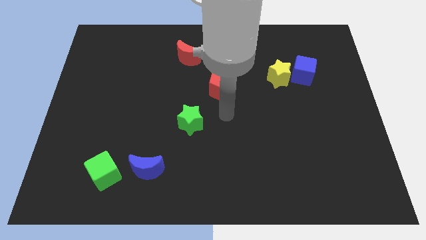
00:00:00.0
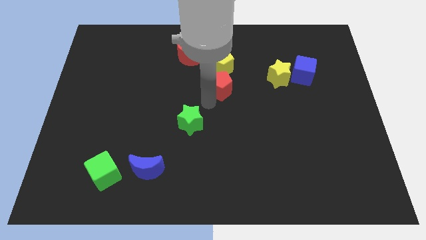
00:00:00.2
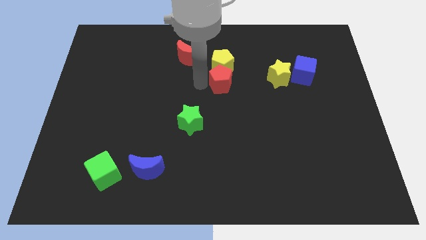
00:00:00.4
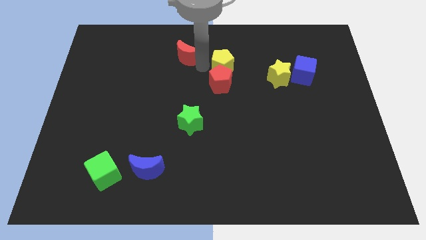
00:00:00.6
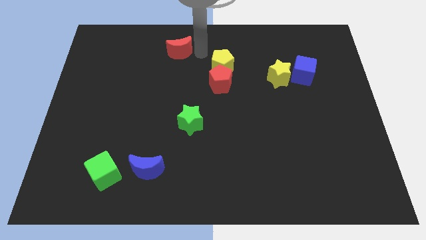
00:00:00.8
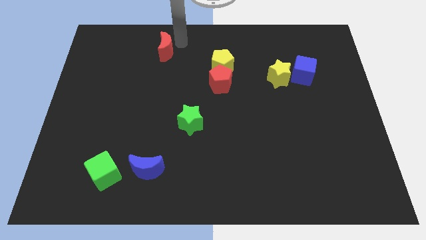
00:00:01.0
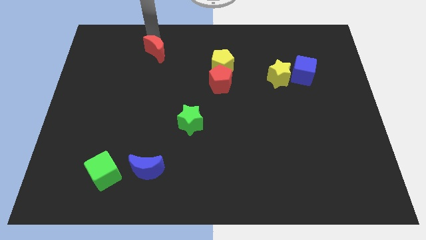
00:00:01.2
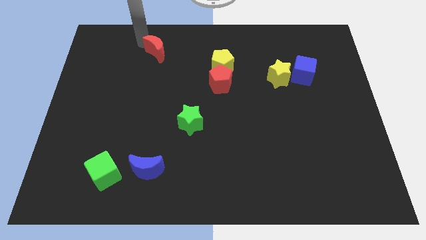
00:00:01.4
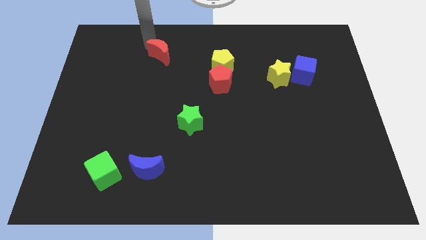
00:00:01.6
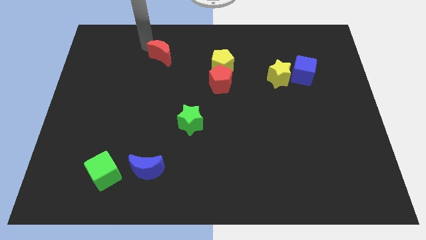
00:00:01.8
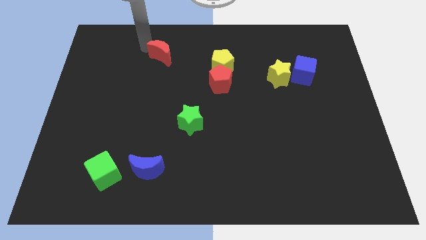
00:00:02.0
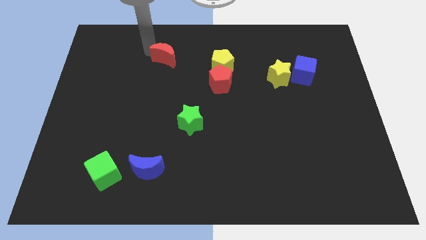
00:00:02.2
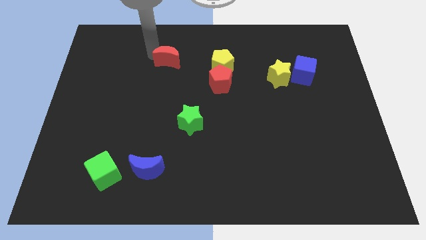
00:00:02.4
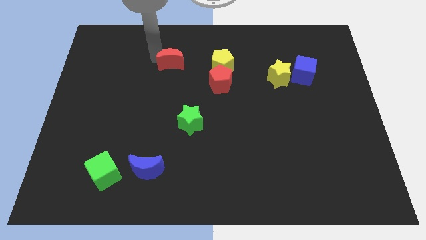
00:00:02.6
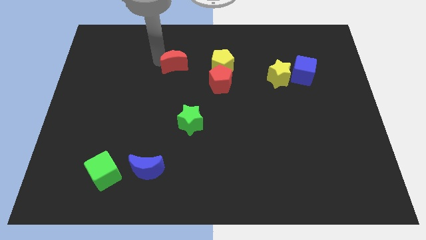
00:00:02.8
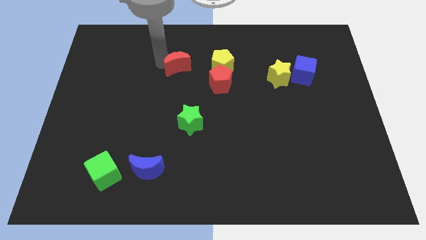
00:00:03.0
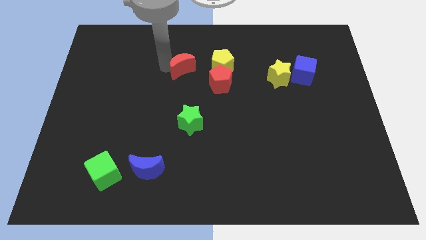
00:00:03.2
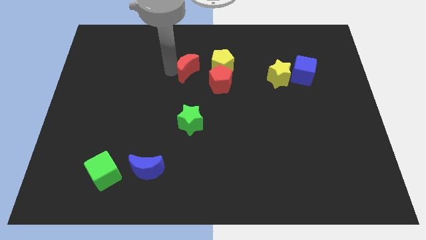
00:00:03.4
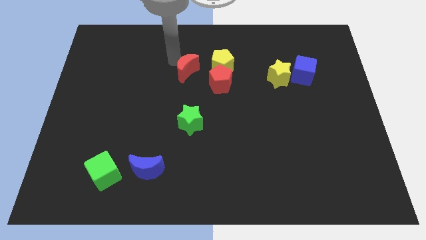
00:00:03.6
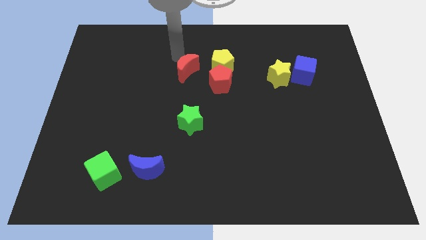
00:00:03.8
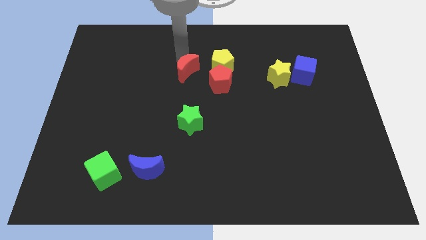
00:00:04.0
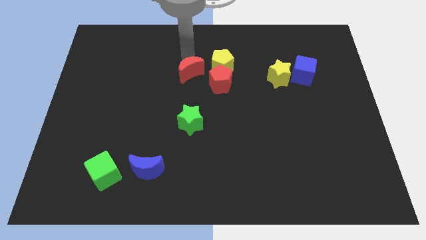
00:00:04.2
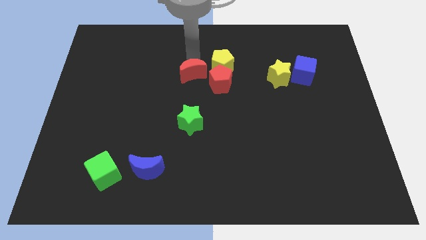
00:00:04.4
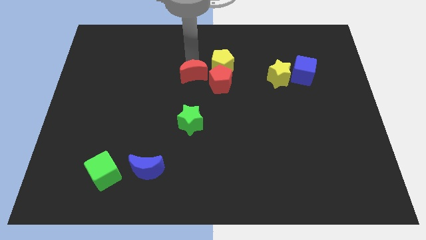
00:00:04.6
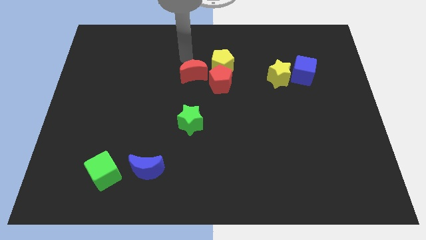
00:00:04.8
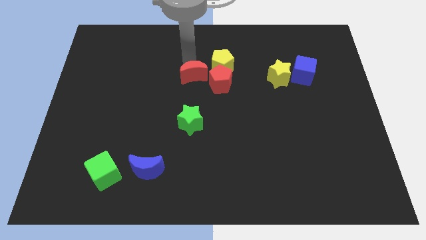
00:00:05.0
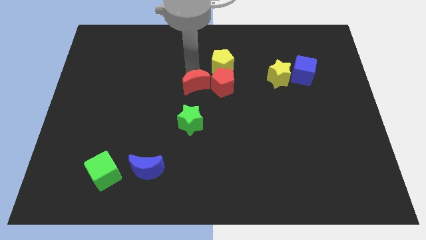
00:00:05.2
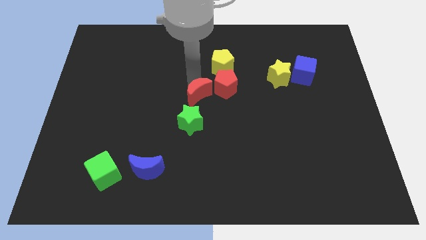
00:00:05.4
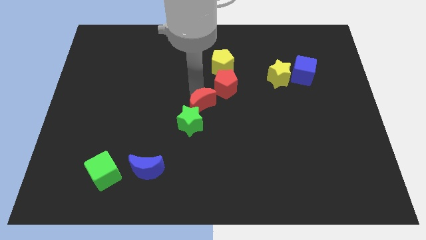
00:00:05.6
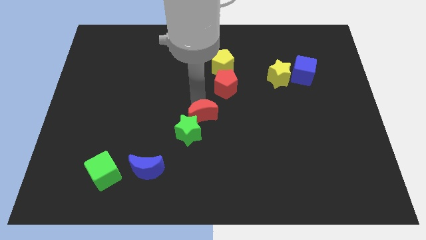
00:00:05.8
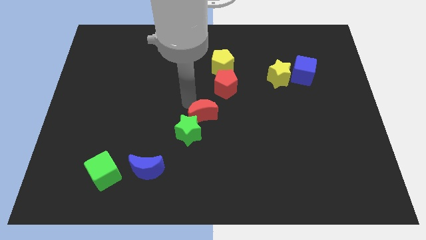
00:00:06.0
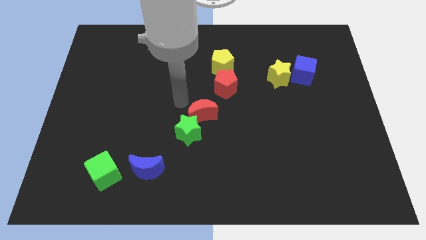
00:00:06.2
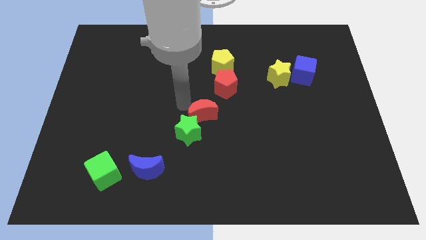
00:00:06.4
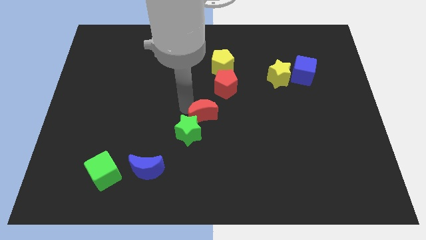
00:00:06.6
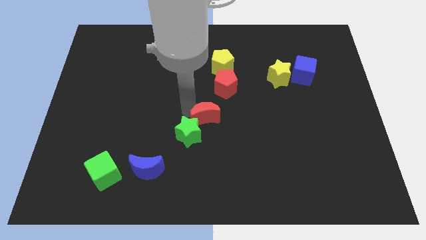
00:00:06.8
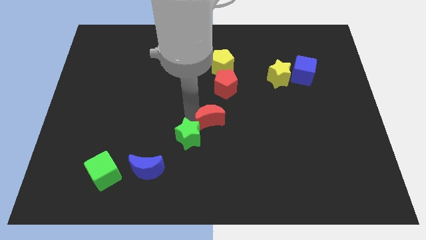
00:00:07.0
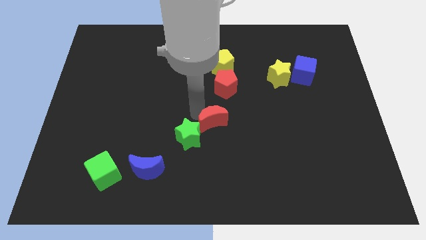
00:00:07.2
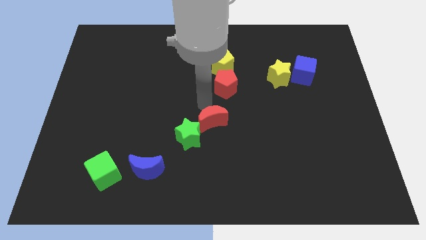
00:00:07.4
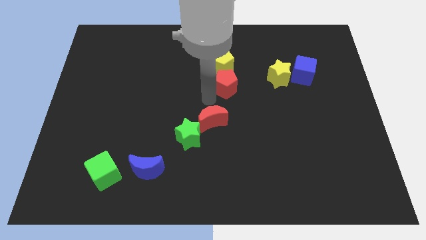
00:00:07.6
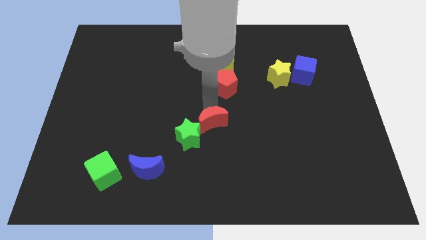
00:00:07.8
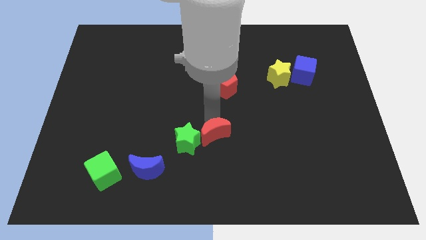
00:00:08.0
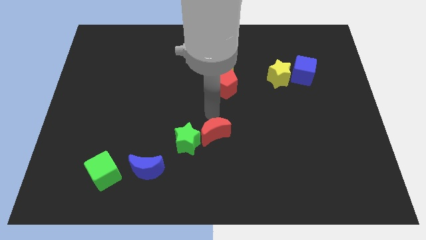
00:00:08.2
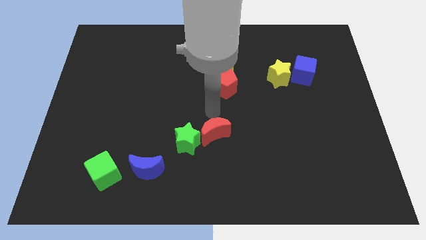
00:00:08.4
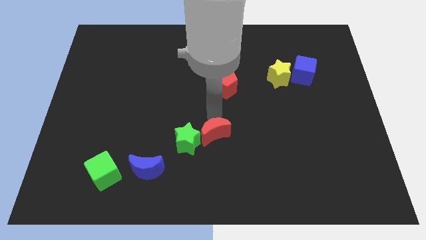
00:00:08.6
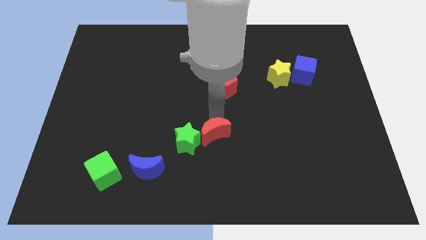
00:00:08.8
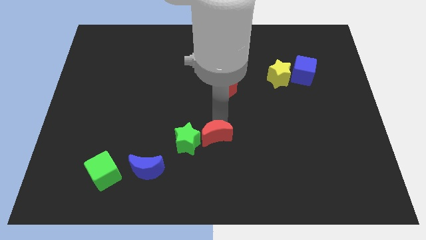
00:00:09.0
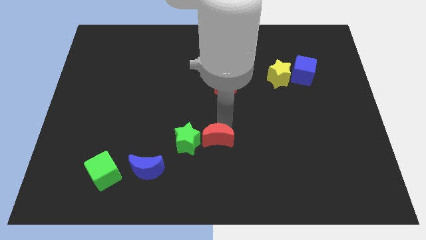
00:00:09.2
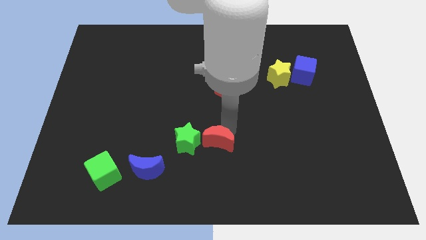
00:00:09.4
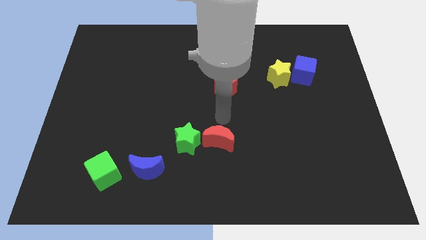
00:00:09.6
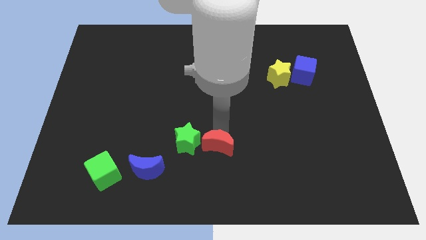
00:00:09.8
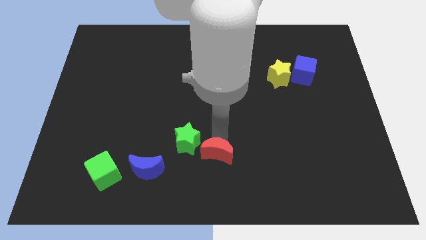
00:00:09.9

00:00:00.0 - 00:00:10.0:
push the red moon to the bottom

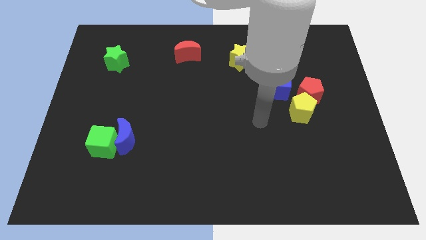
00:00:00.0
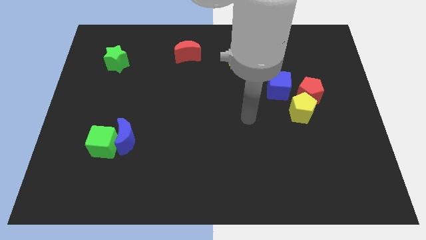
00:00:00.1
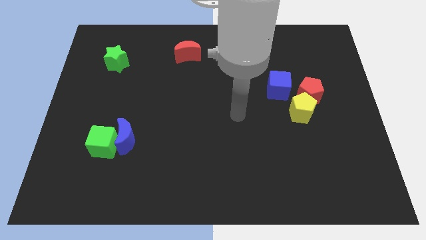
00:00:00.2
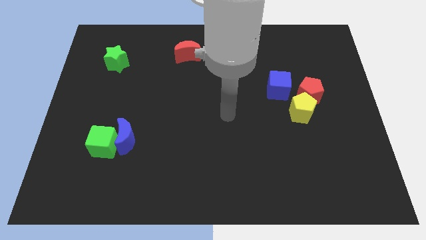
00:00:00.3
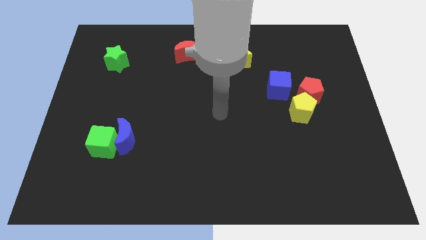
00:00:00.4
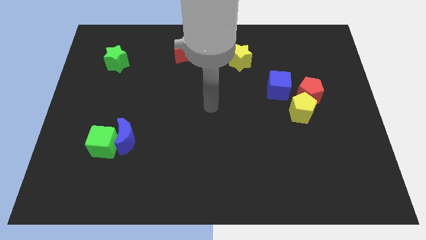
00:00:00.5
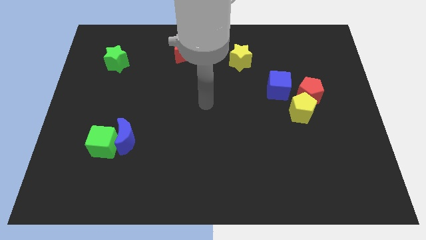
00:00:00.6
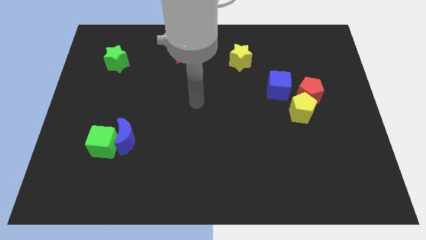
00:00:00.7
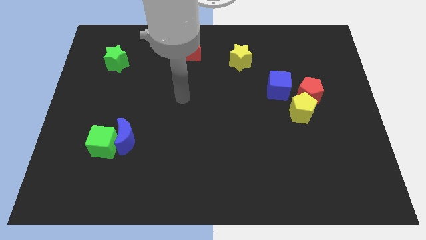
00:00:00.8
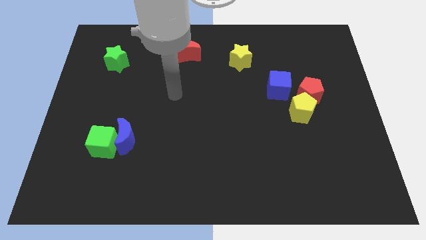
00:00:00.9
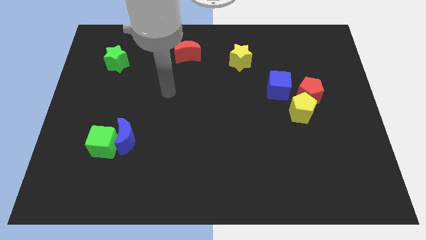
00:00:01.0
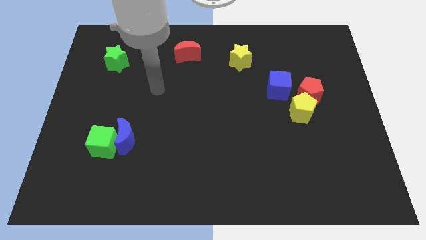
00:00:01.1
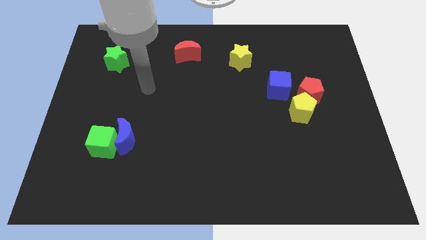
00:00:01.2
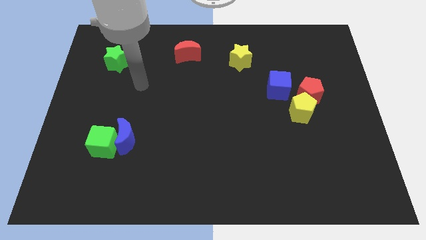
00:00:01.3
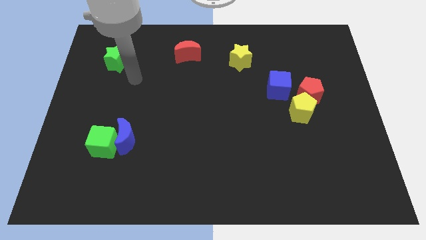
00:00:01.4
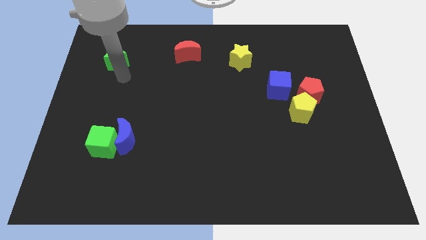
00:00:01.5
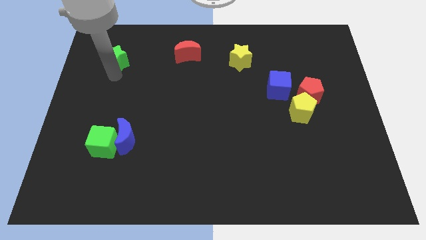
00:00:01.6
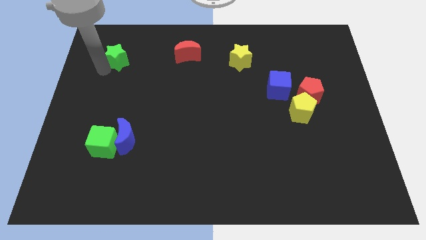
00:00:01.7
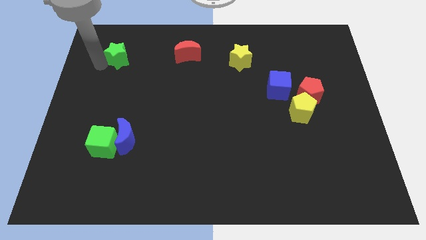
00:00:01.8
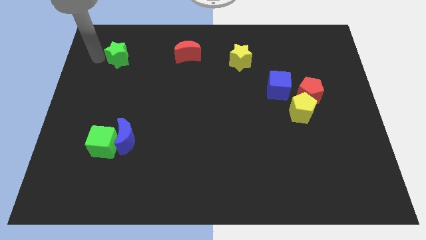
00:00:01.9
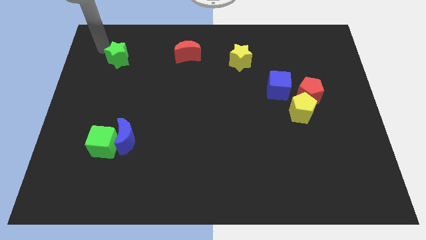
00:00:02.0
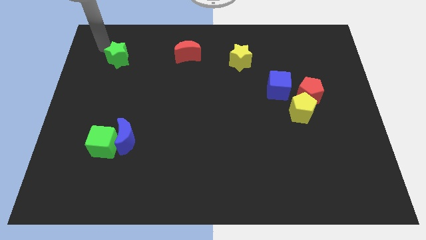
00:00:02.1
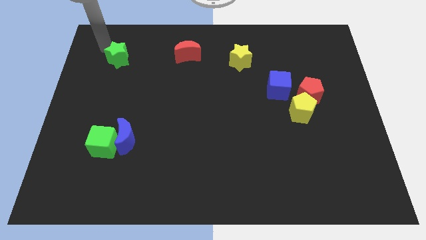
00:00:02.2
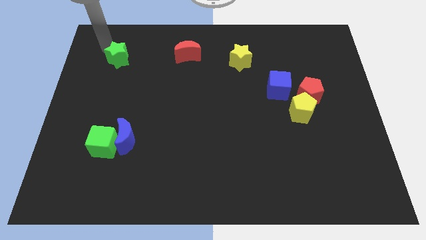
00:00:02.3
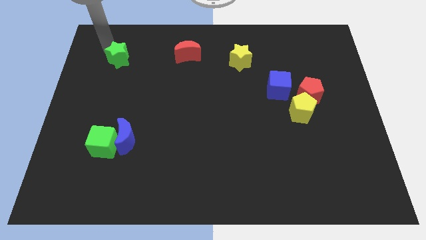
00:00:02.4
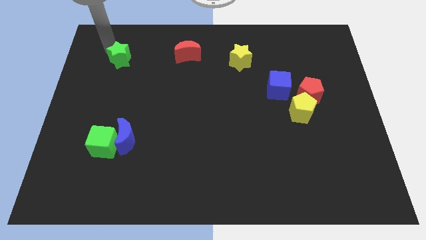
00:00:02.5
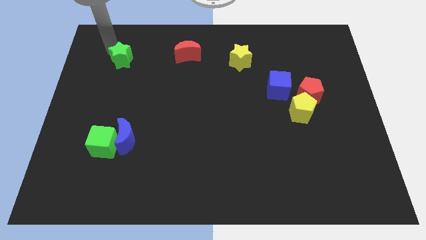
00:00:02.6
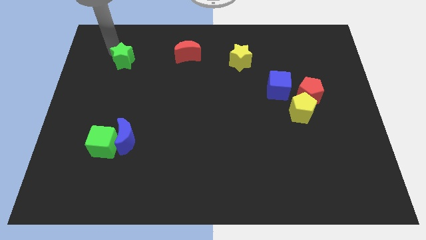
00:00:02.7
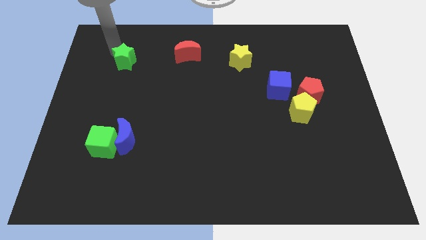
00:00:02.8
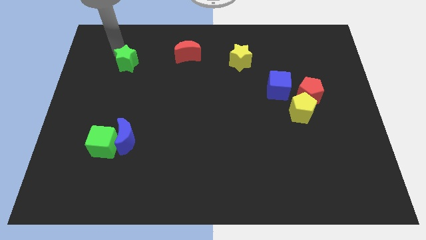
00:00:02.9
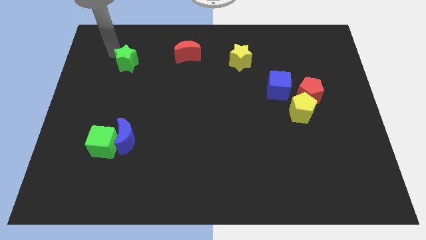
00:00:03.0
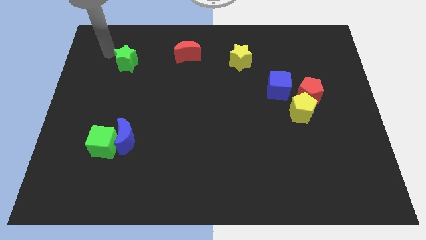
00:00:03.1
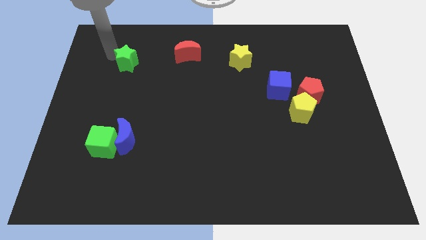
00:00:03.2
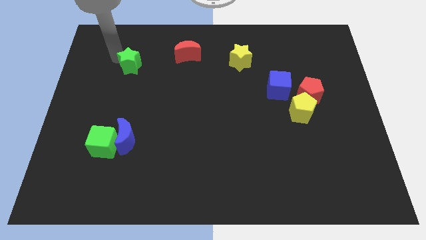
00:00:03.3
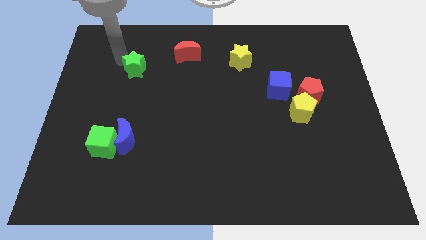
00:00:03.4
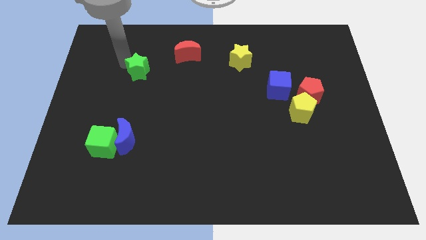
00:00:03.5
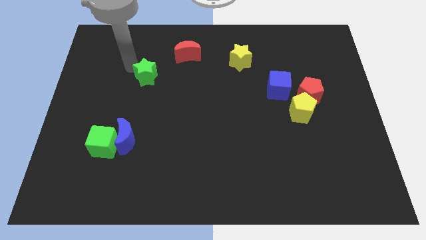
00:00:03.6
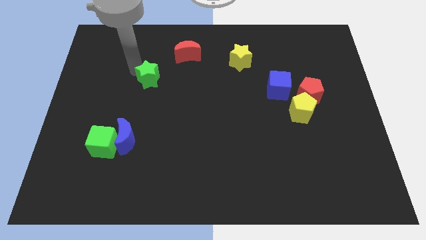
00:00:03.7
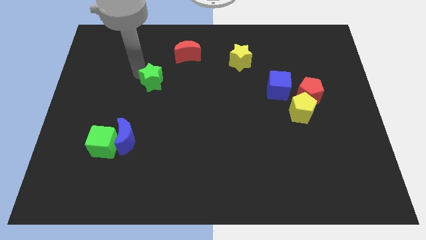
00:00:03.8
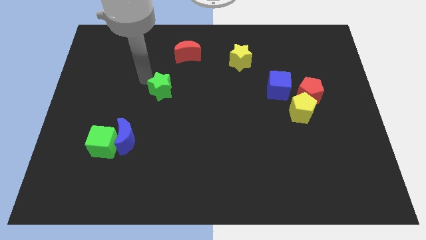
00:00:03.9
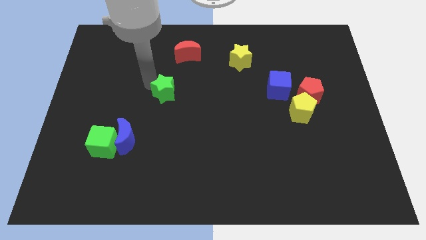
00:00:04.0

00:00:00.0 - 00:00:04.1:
put the green star to the middle
